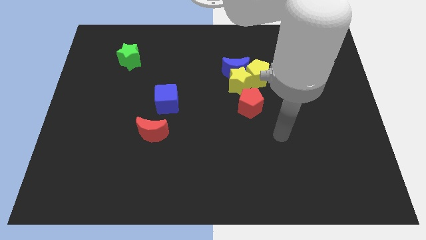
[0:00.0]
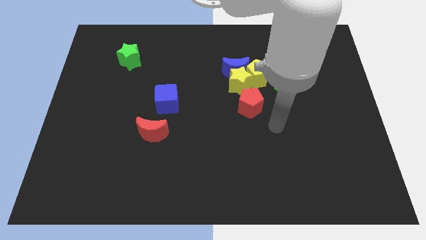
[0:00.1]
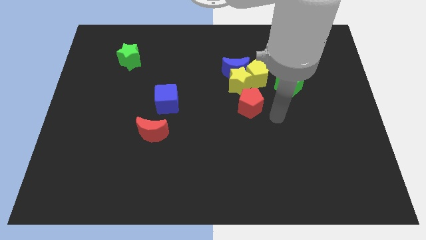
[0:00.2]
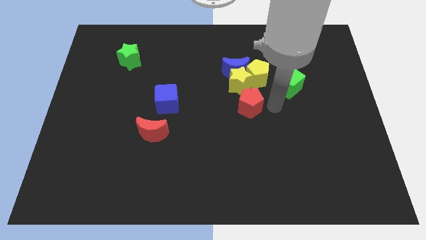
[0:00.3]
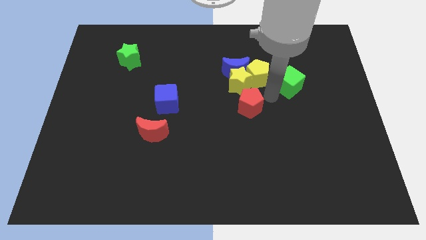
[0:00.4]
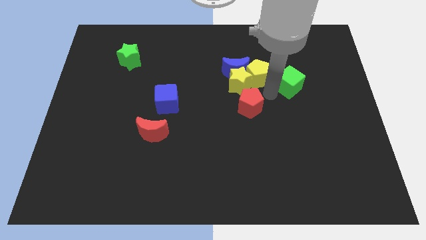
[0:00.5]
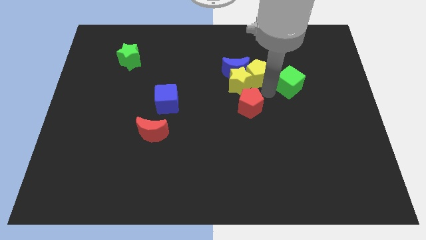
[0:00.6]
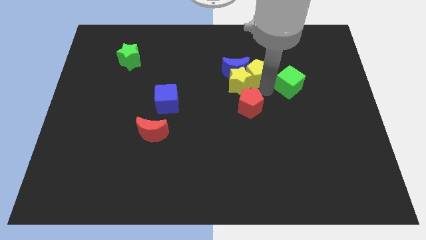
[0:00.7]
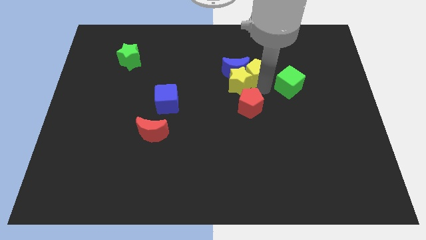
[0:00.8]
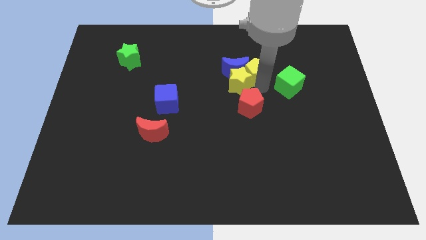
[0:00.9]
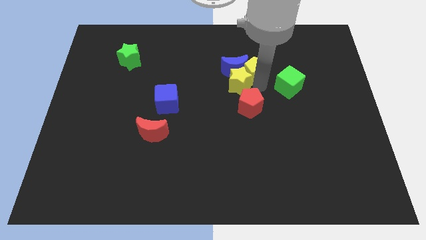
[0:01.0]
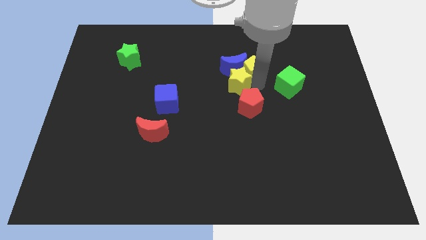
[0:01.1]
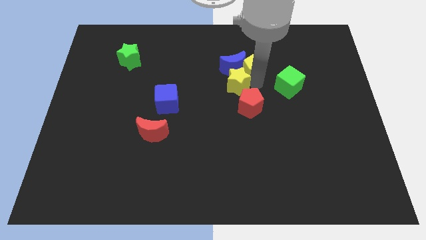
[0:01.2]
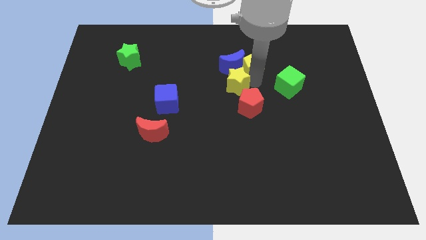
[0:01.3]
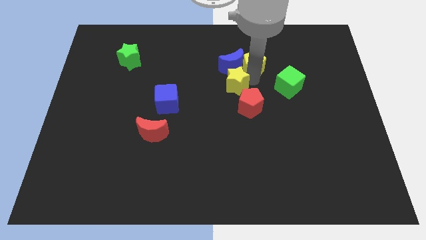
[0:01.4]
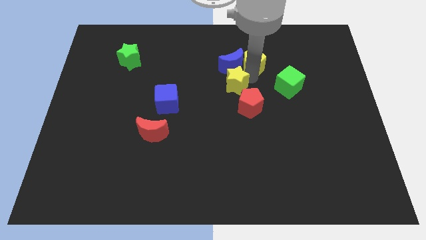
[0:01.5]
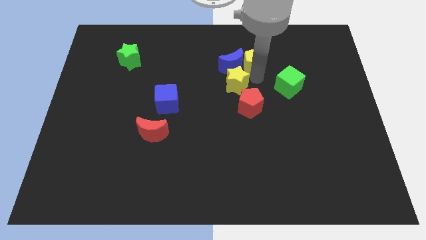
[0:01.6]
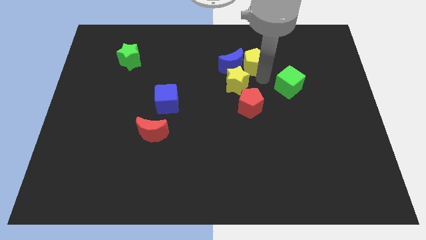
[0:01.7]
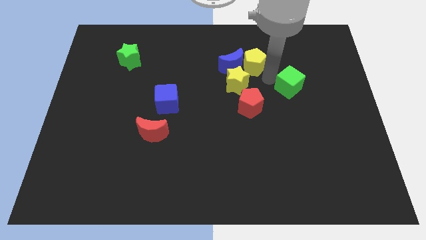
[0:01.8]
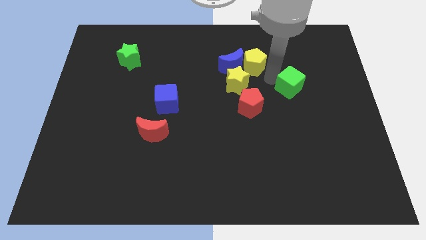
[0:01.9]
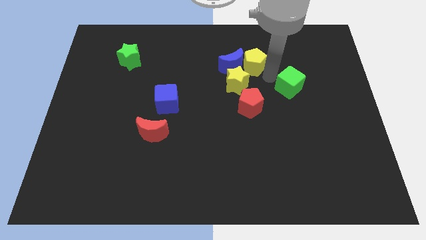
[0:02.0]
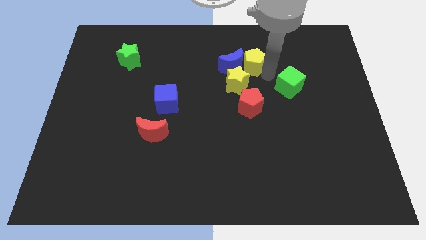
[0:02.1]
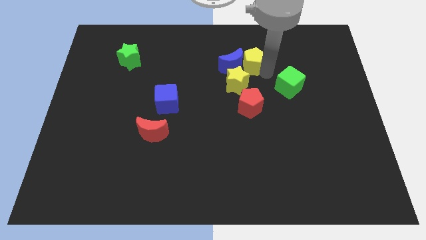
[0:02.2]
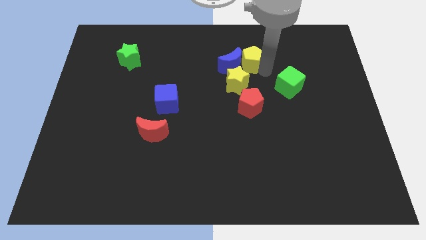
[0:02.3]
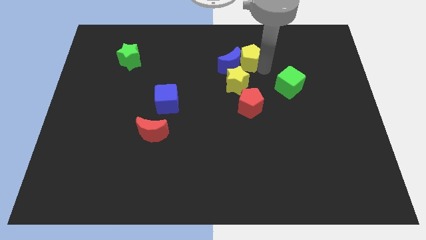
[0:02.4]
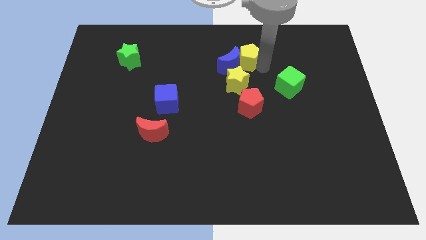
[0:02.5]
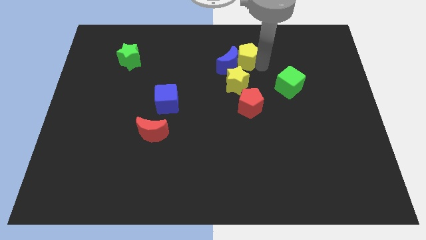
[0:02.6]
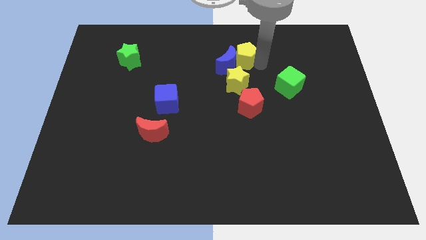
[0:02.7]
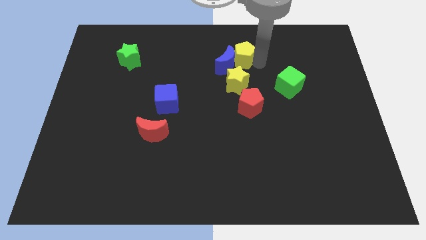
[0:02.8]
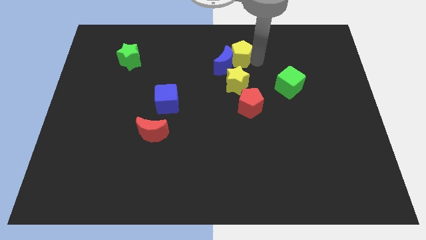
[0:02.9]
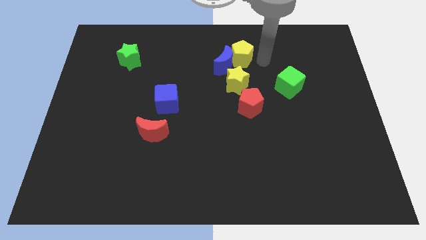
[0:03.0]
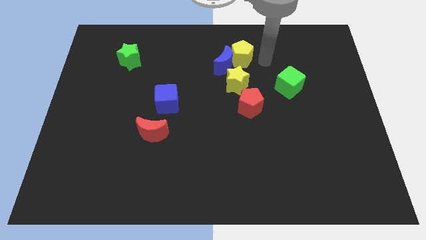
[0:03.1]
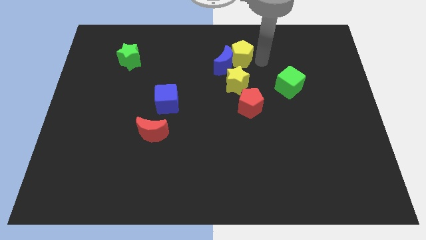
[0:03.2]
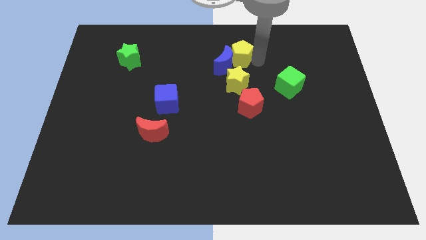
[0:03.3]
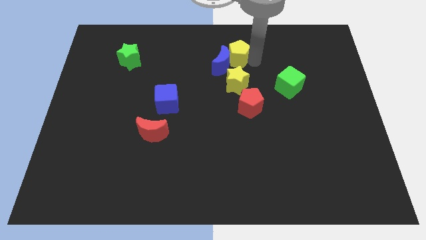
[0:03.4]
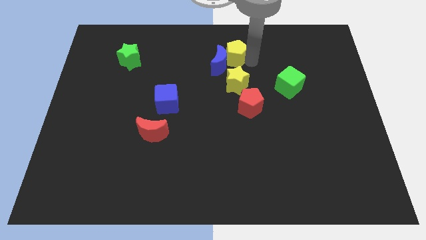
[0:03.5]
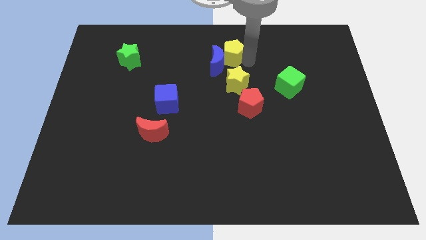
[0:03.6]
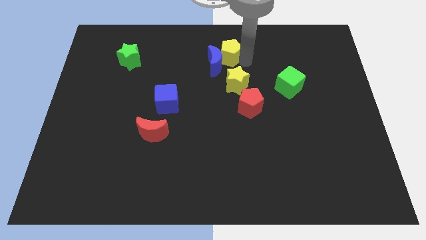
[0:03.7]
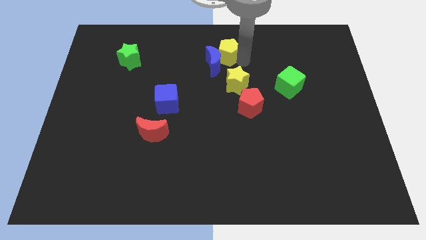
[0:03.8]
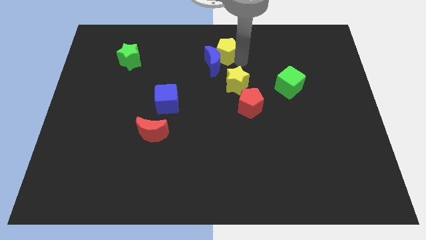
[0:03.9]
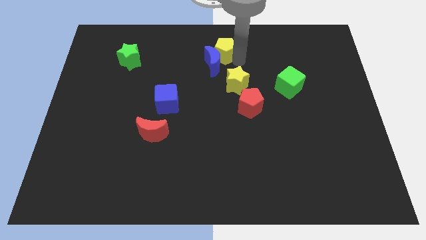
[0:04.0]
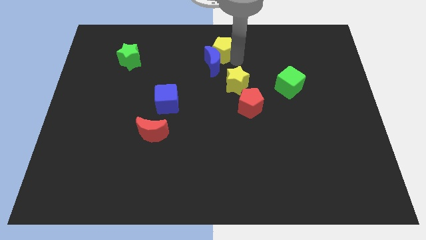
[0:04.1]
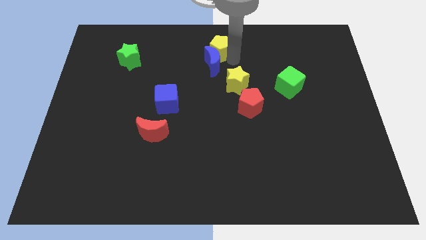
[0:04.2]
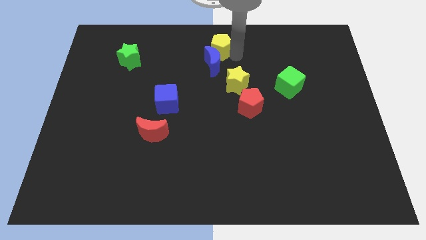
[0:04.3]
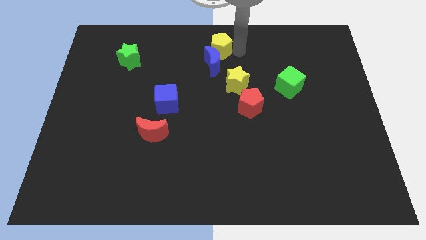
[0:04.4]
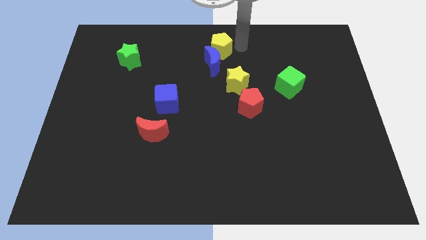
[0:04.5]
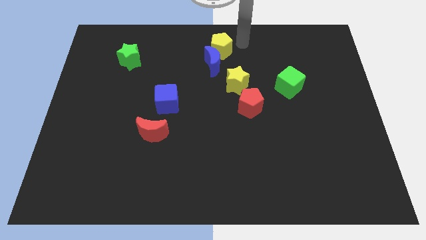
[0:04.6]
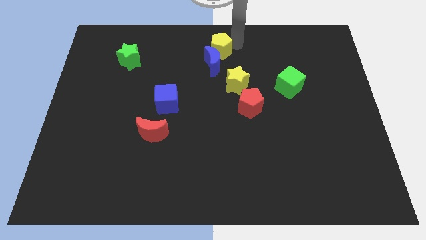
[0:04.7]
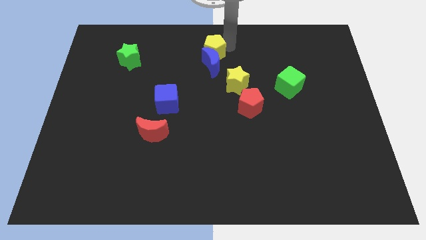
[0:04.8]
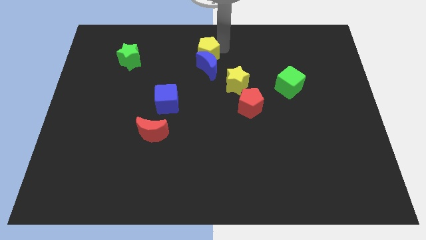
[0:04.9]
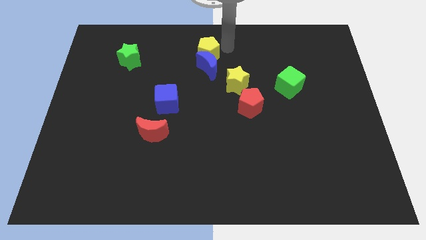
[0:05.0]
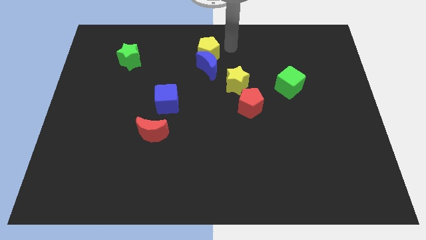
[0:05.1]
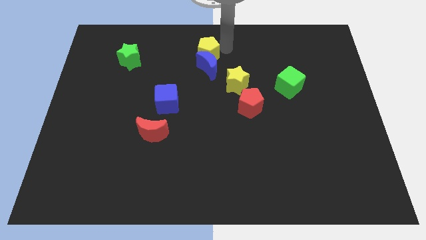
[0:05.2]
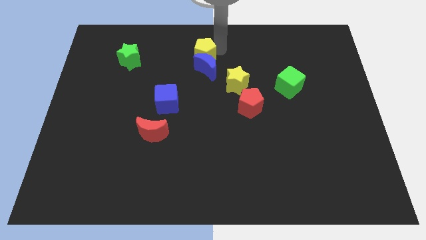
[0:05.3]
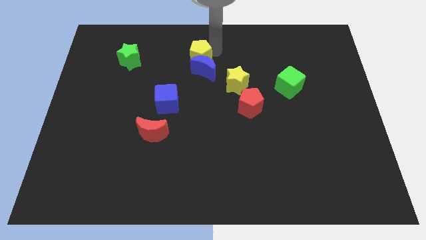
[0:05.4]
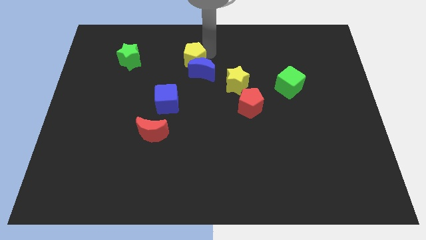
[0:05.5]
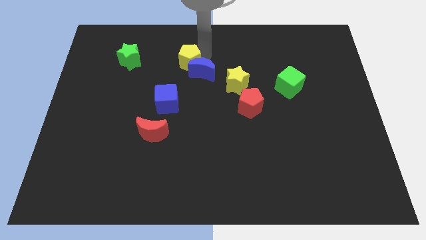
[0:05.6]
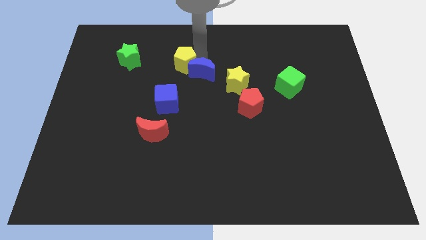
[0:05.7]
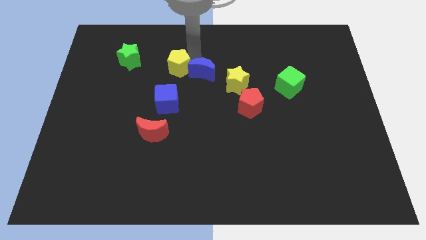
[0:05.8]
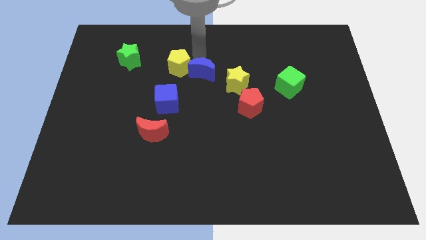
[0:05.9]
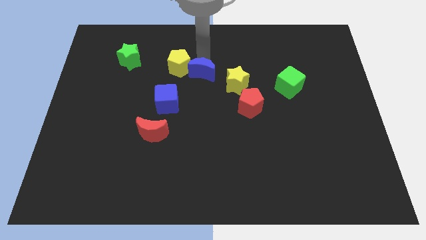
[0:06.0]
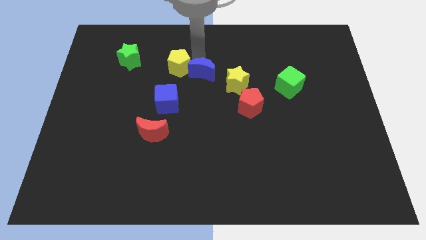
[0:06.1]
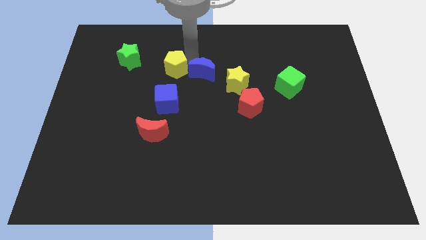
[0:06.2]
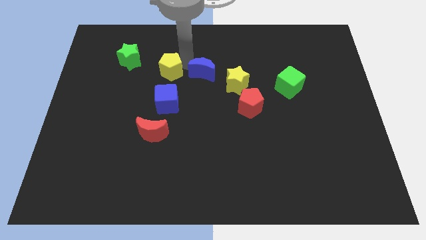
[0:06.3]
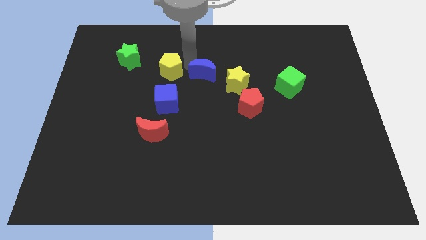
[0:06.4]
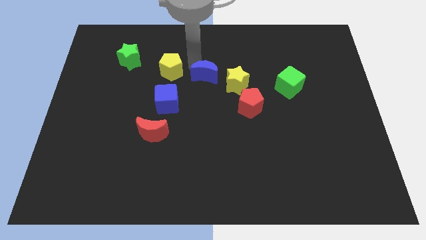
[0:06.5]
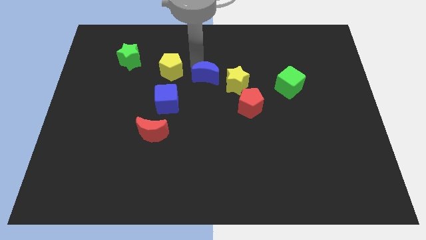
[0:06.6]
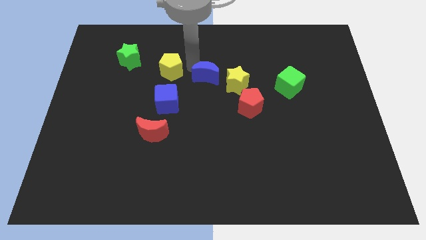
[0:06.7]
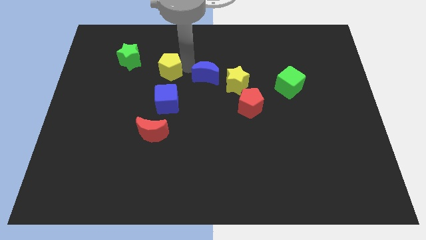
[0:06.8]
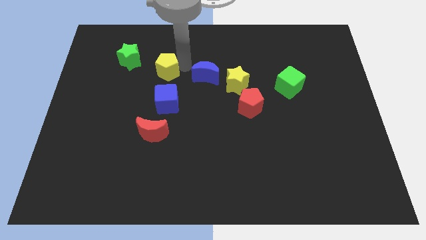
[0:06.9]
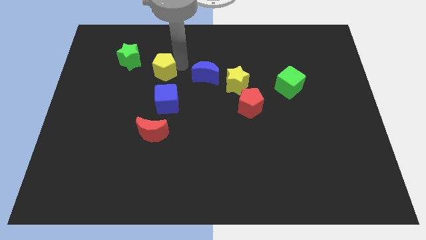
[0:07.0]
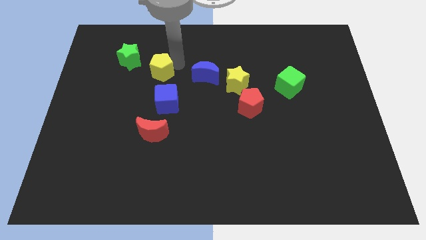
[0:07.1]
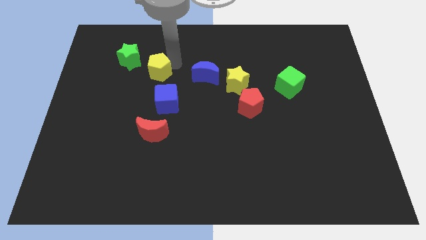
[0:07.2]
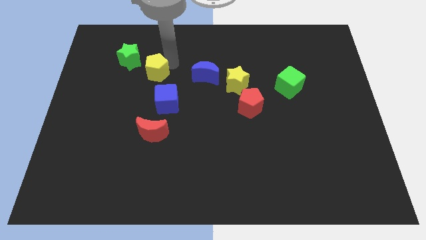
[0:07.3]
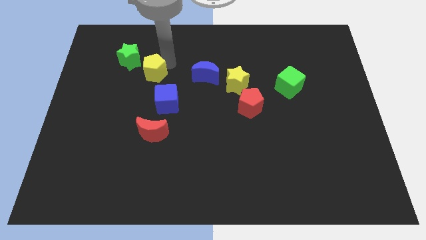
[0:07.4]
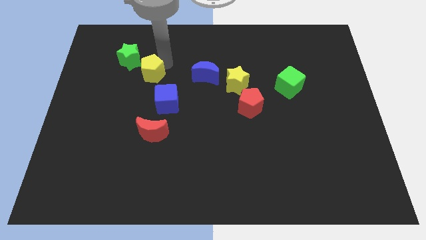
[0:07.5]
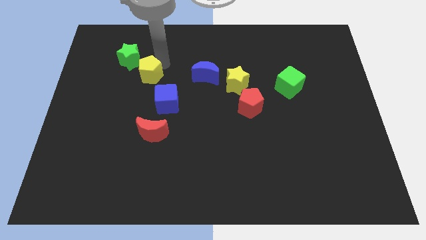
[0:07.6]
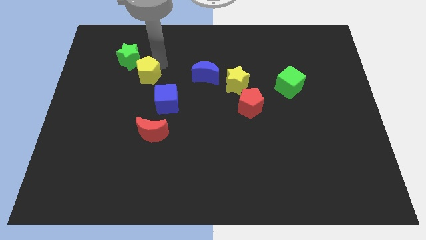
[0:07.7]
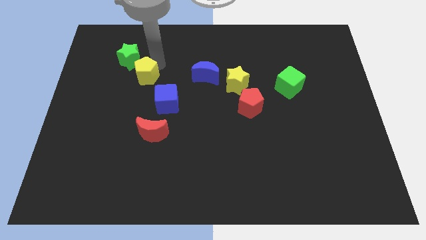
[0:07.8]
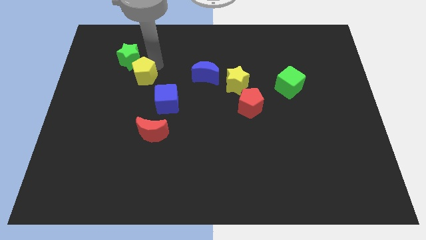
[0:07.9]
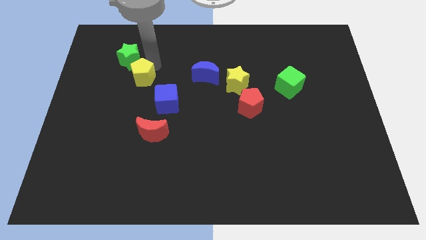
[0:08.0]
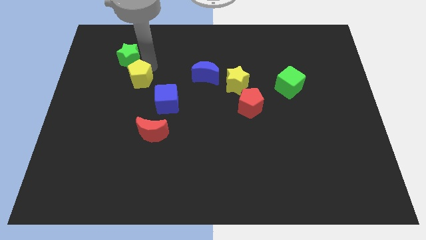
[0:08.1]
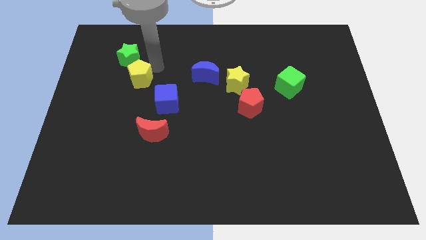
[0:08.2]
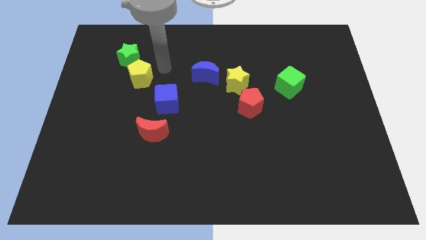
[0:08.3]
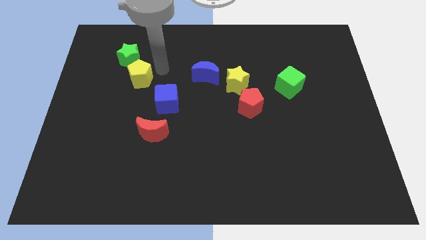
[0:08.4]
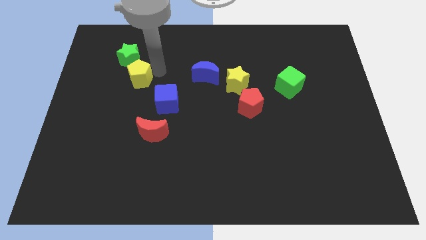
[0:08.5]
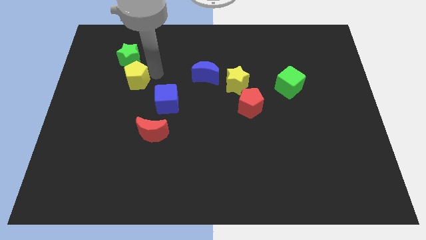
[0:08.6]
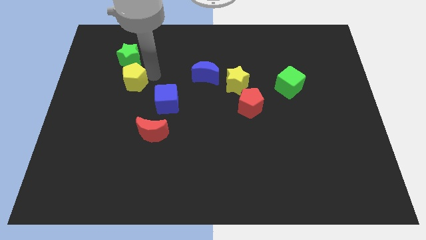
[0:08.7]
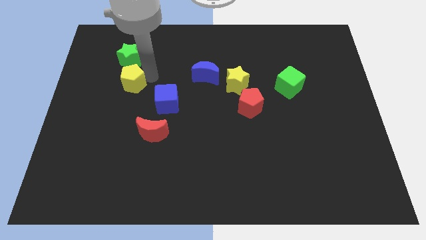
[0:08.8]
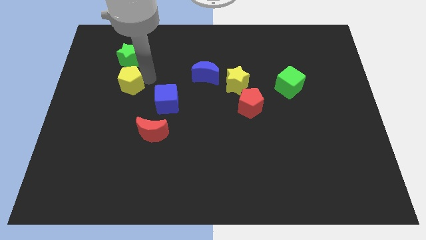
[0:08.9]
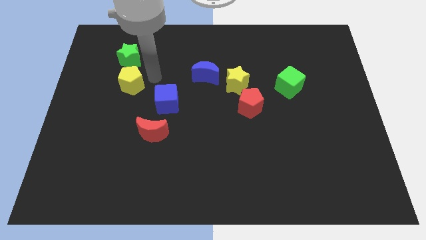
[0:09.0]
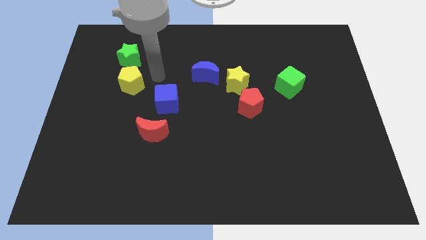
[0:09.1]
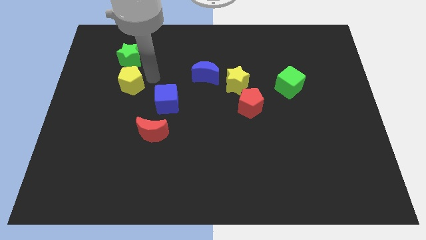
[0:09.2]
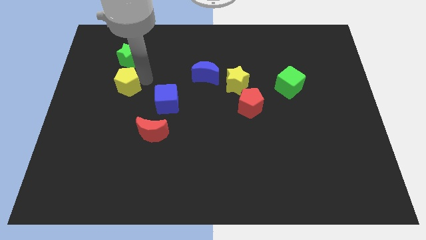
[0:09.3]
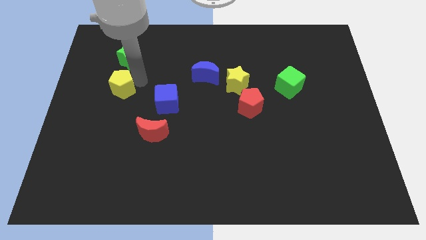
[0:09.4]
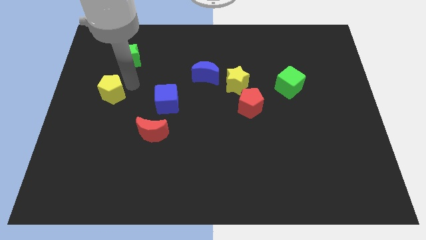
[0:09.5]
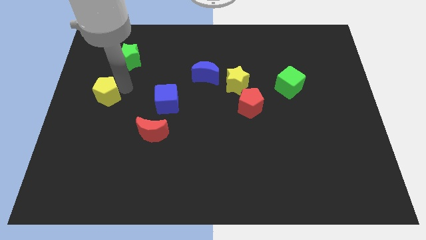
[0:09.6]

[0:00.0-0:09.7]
put the yellow pentagon to the left side of the board
